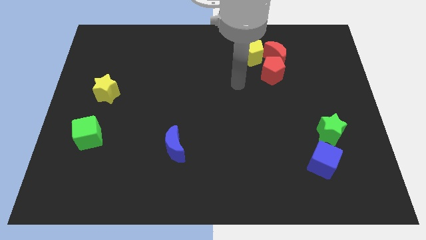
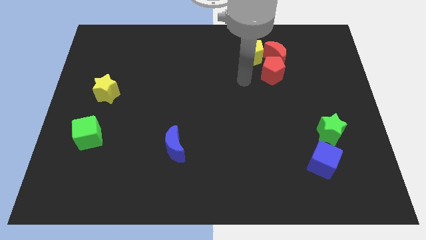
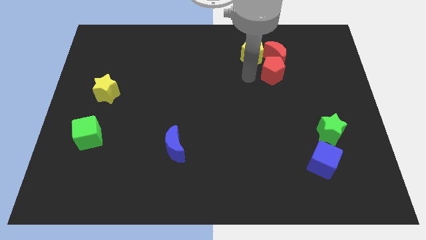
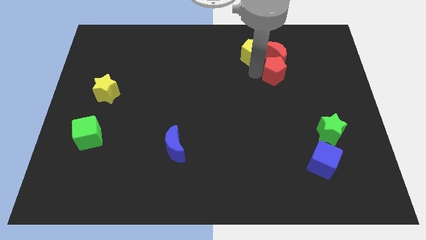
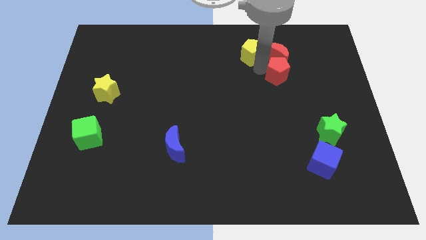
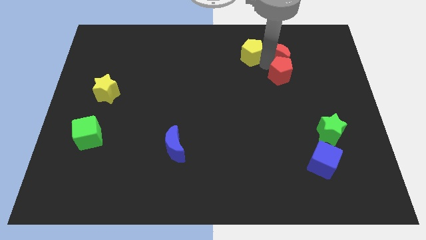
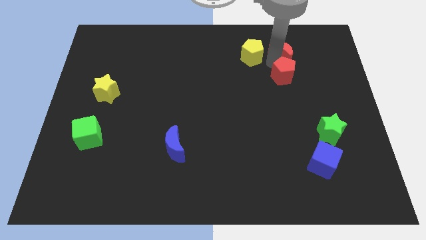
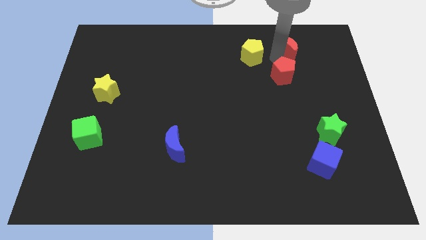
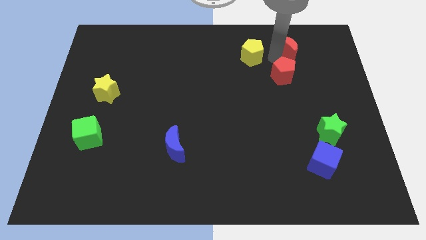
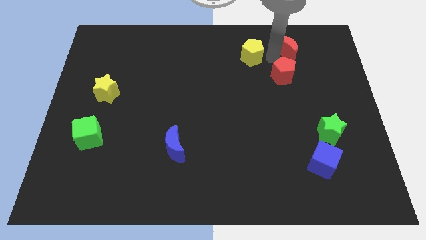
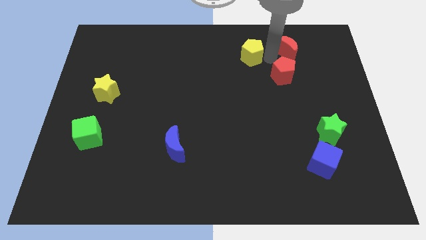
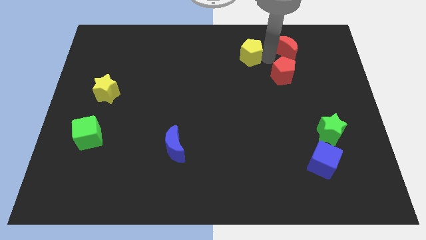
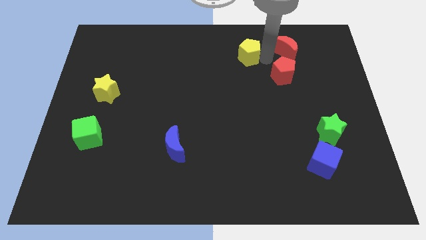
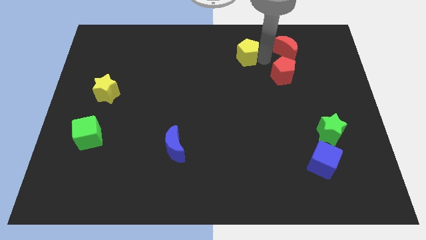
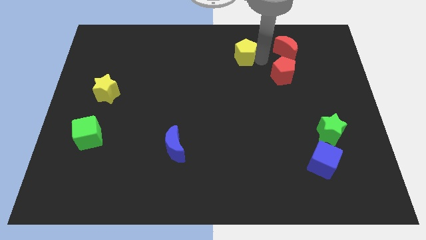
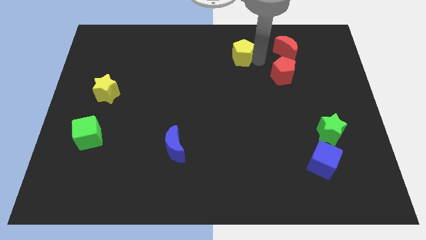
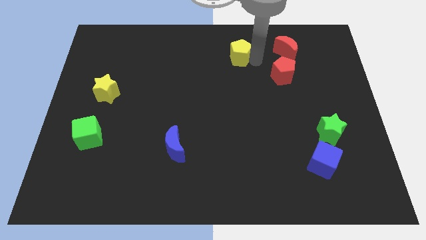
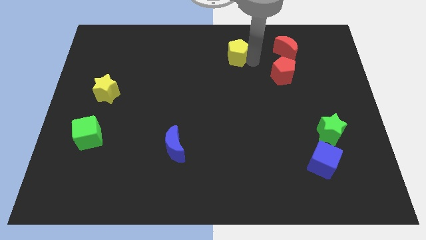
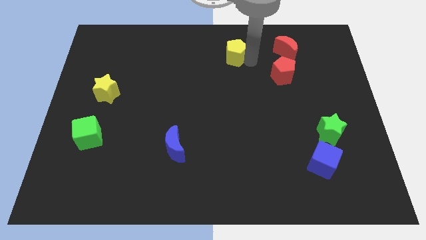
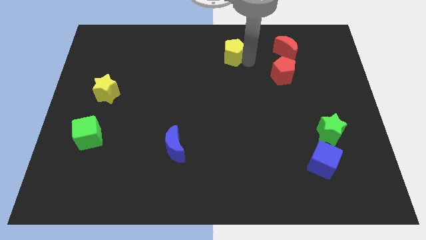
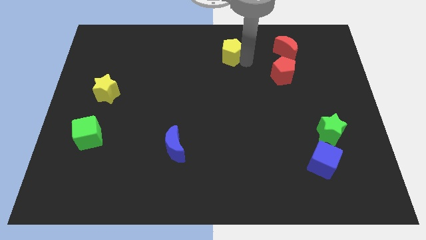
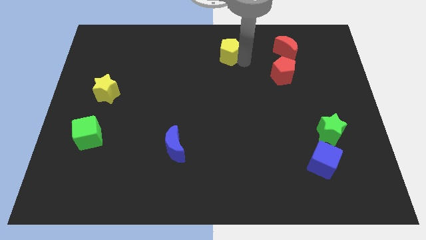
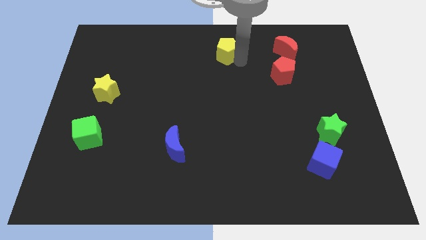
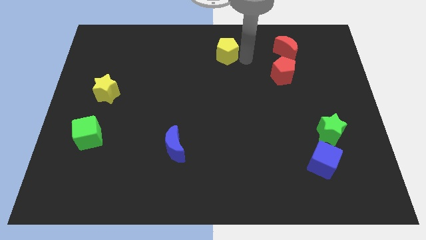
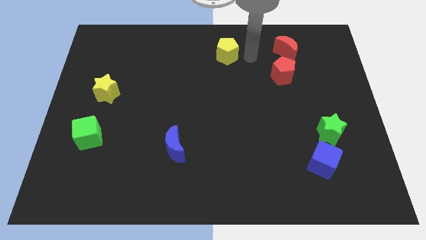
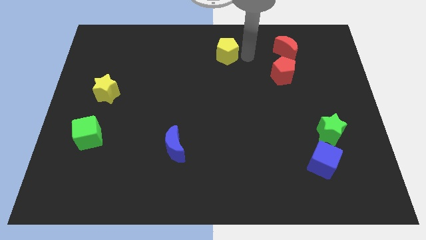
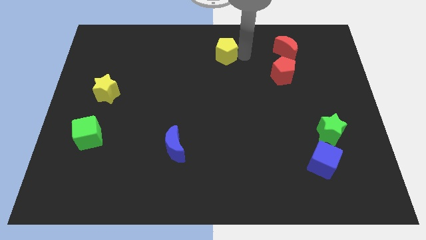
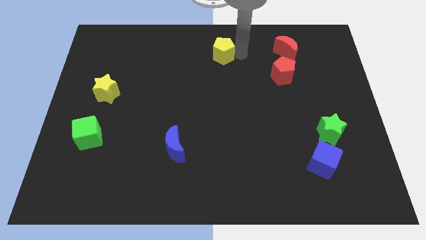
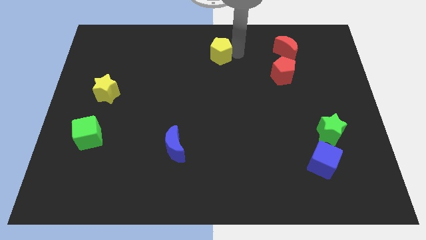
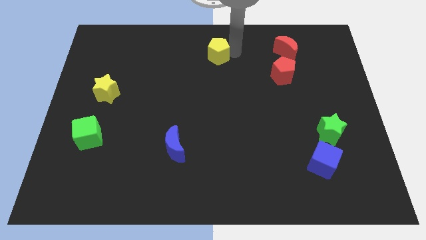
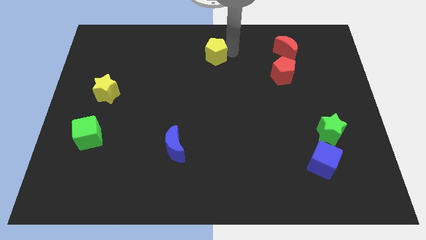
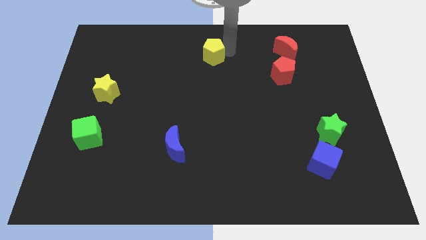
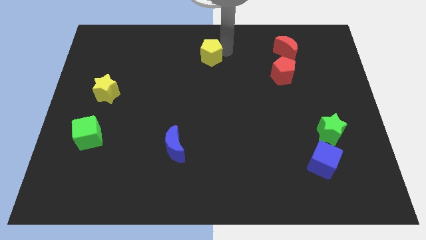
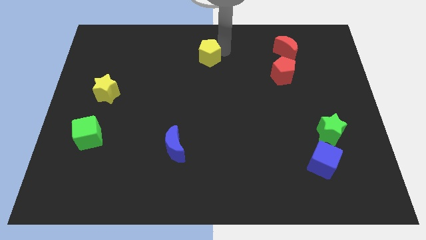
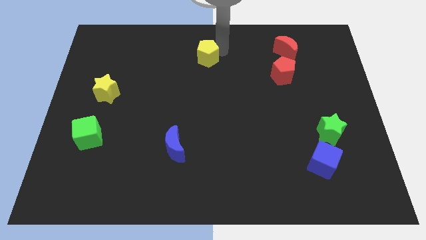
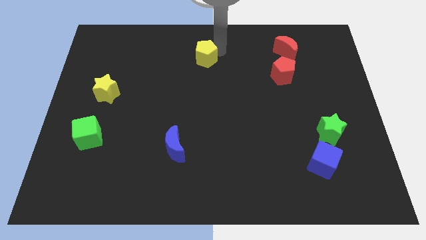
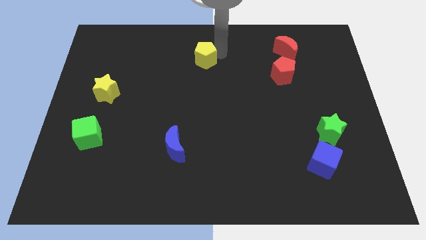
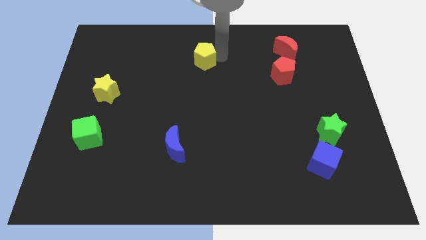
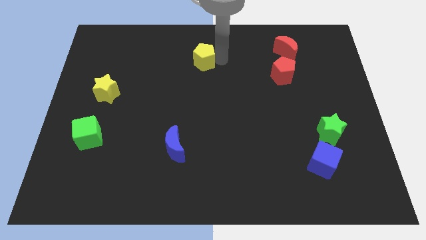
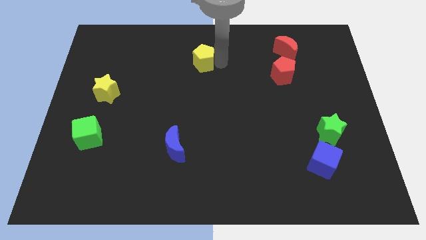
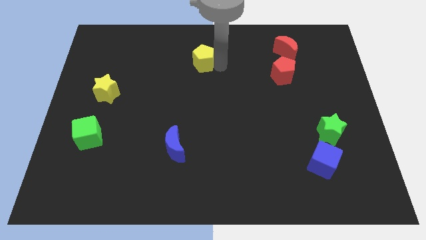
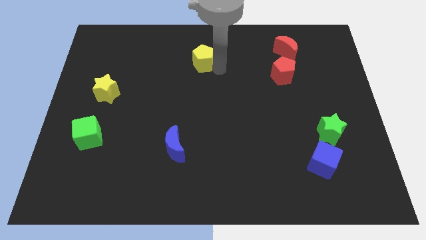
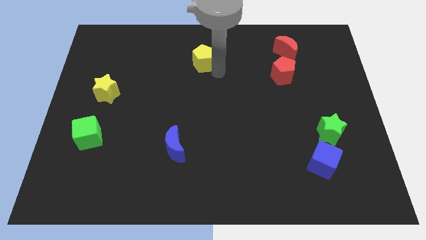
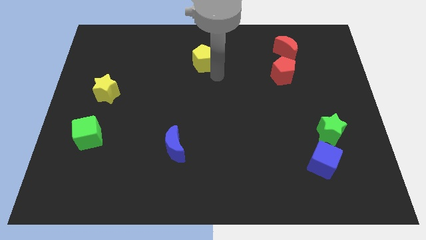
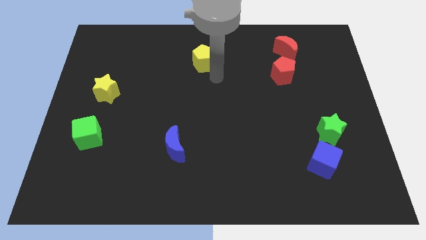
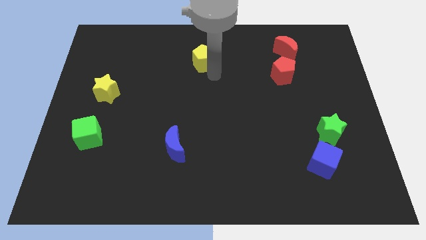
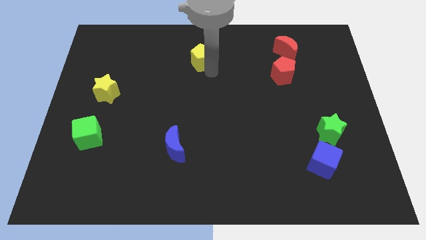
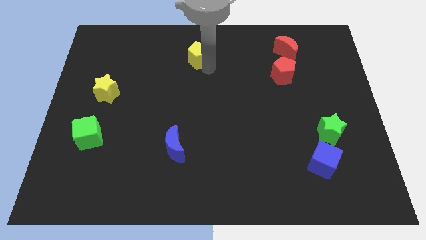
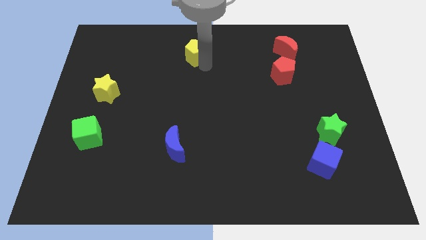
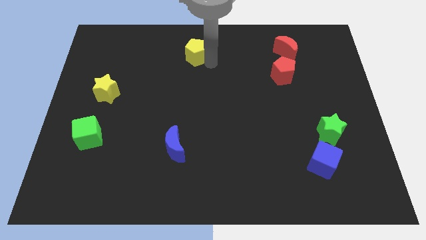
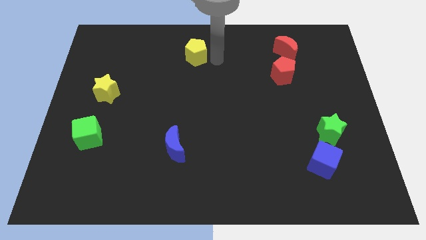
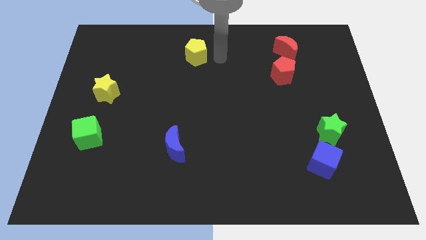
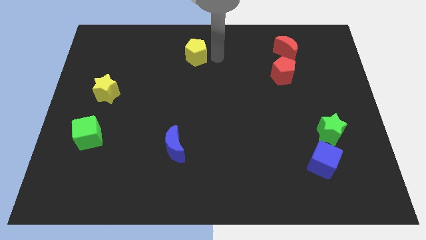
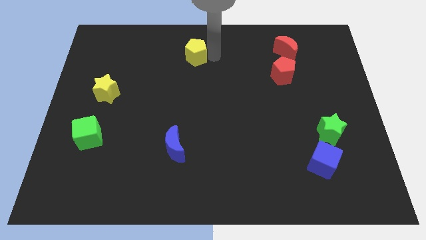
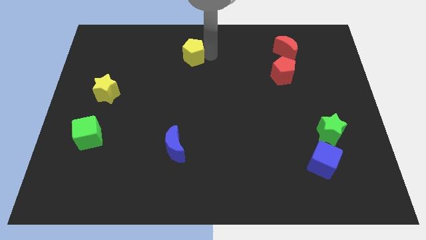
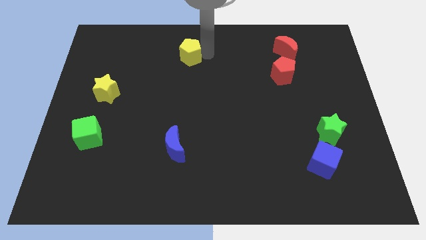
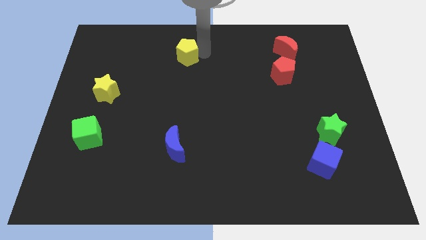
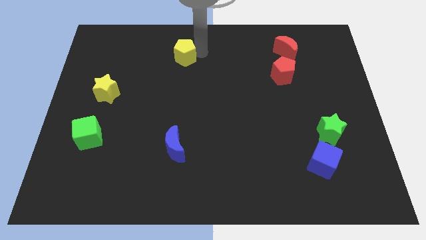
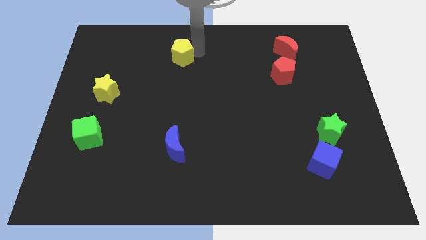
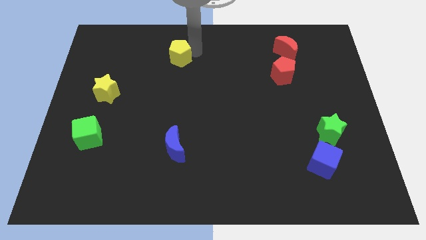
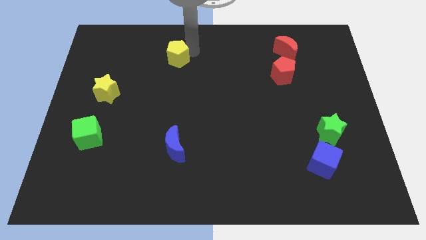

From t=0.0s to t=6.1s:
move the yellow pentagon left

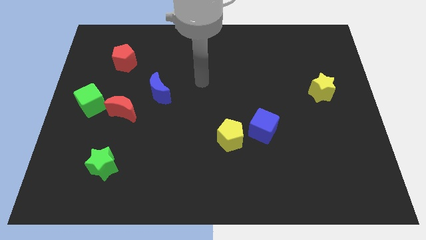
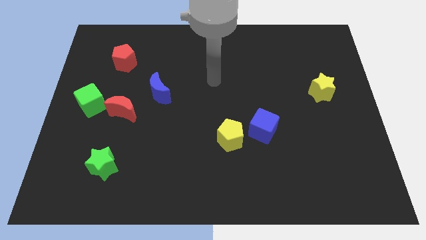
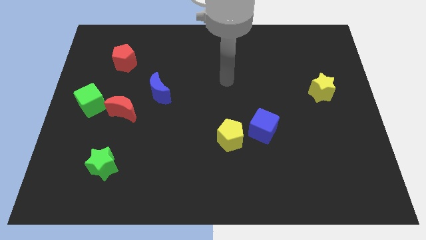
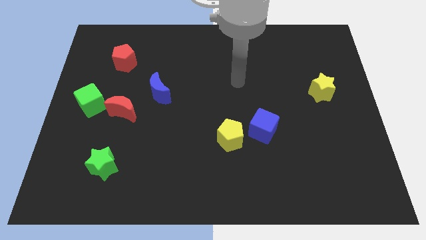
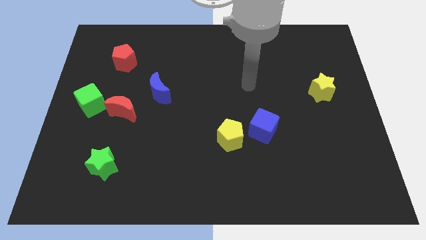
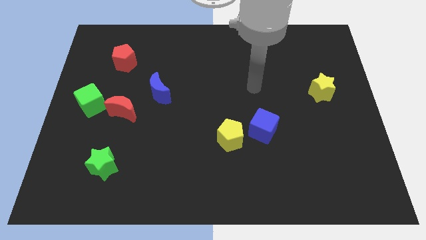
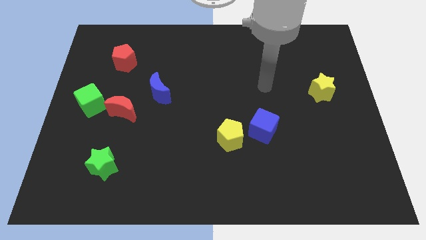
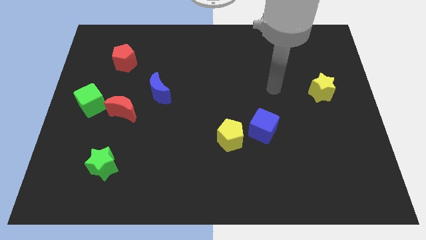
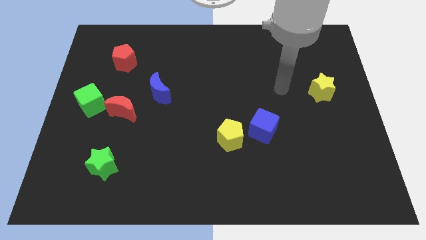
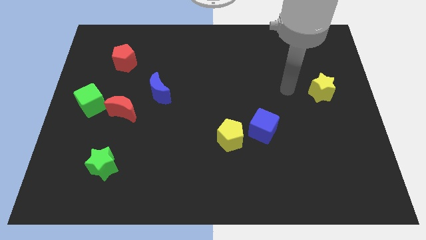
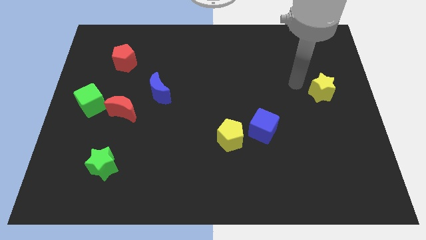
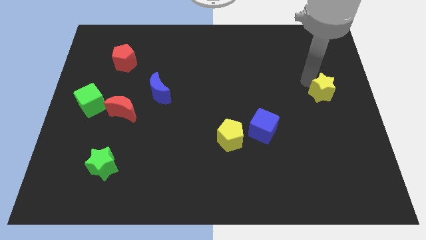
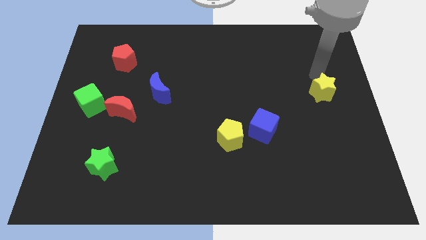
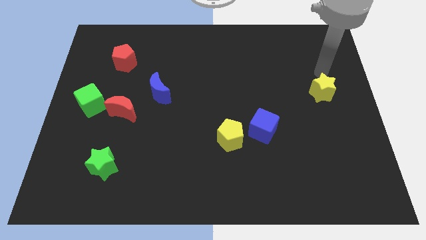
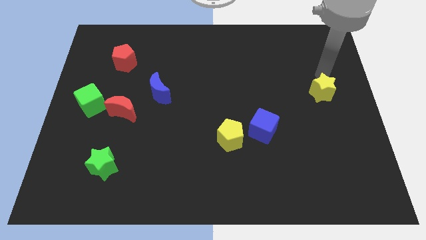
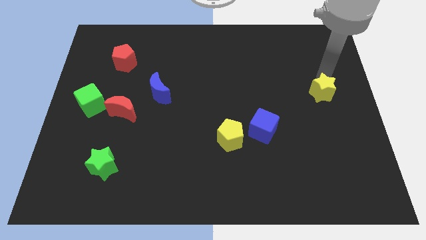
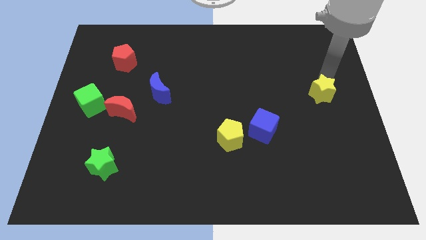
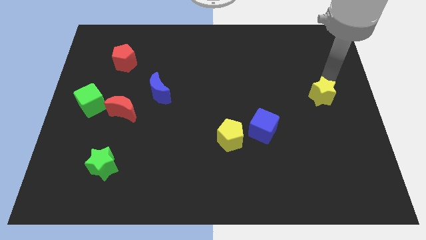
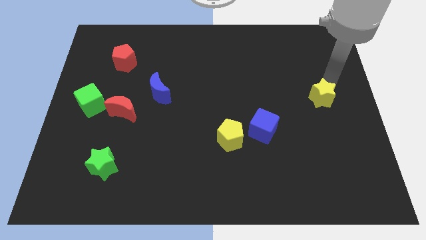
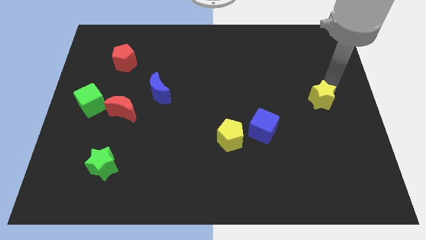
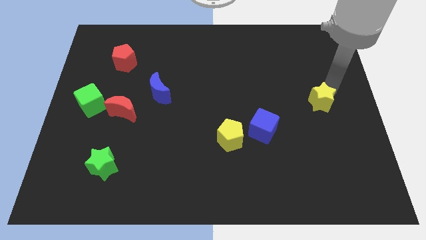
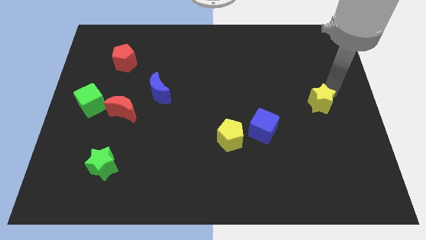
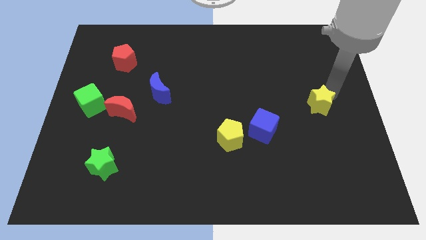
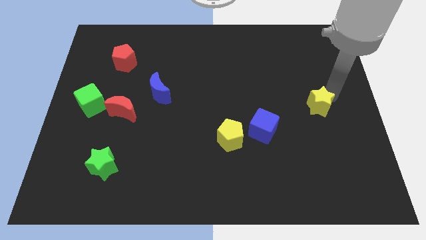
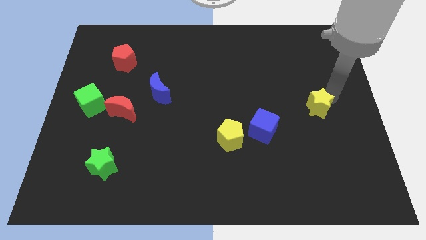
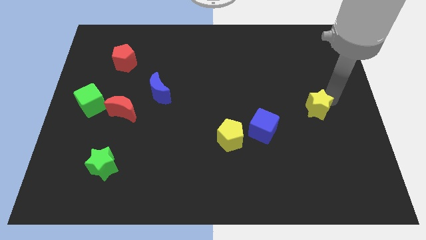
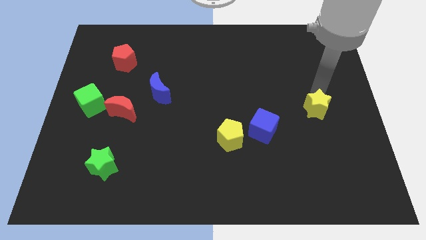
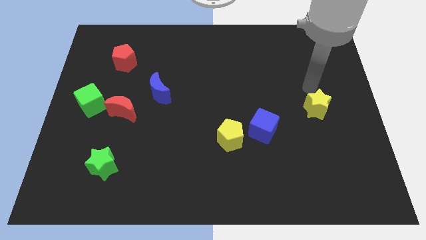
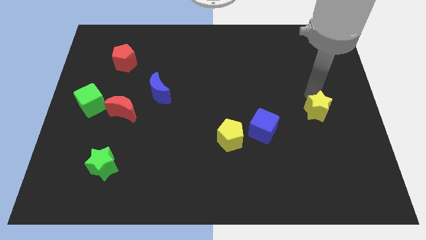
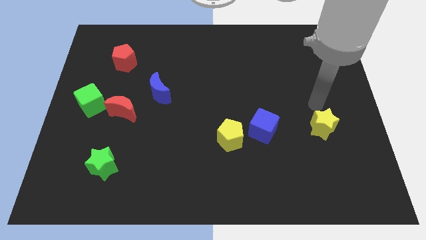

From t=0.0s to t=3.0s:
push the yellow star somewhat downwards
